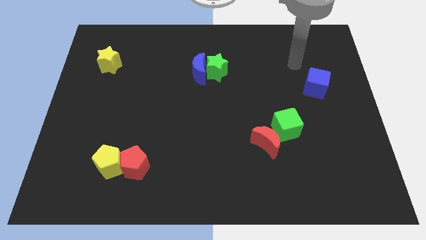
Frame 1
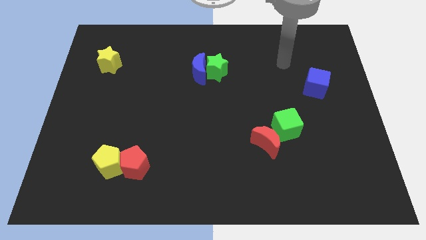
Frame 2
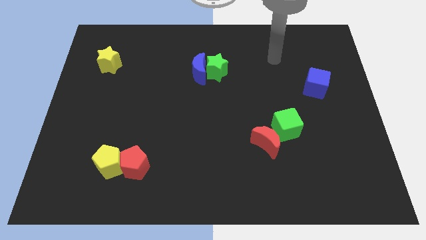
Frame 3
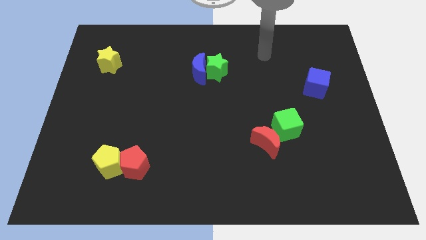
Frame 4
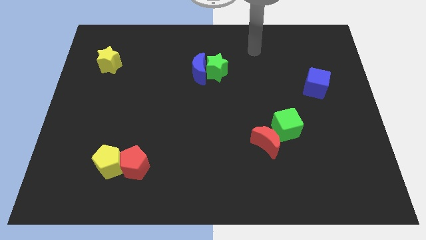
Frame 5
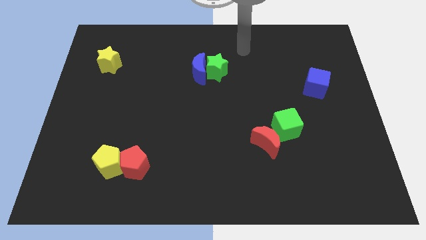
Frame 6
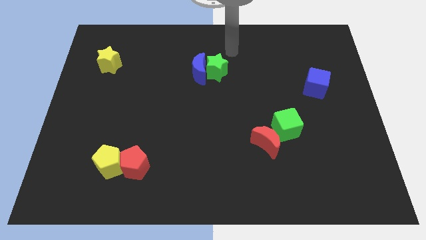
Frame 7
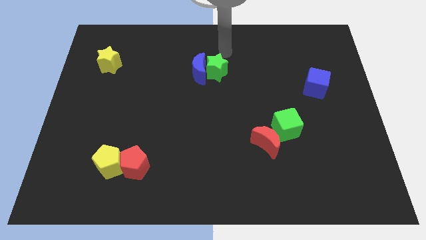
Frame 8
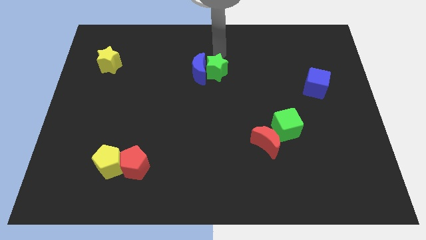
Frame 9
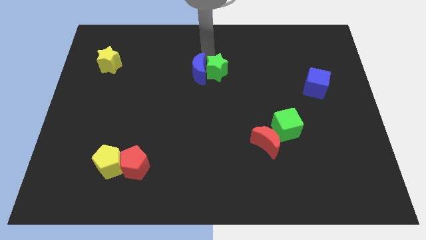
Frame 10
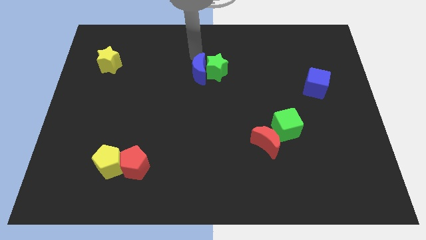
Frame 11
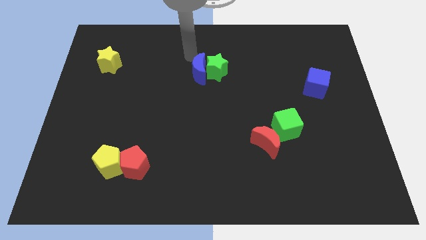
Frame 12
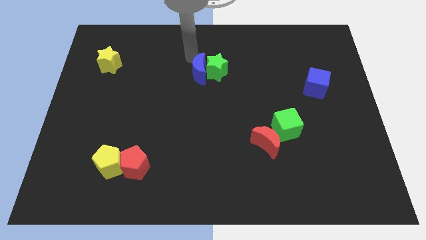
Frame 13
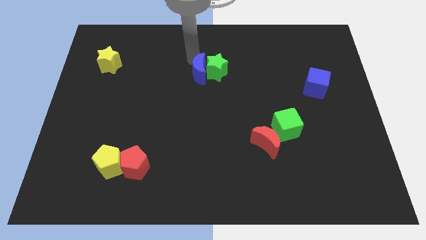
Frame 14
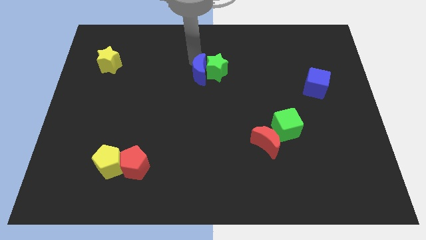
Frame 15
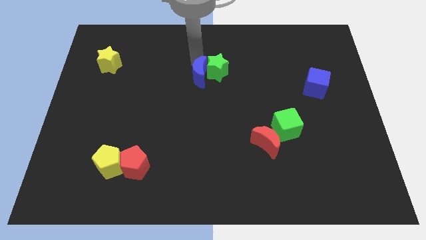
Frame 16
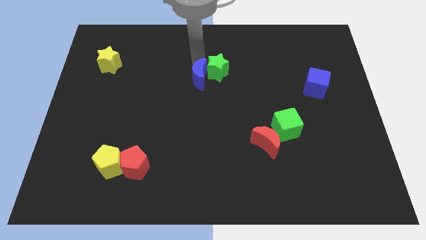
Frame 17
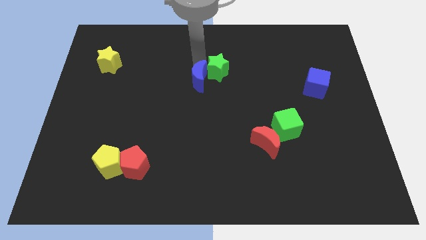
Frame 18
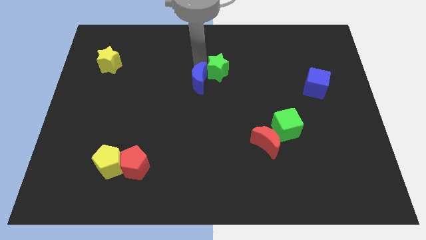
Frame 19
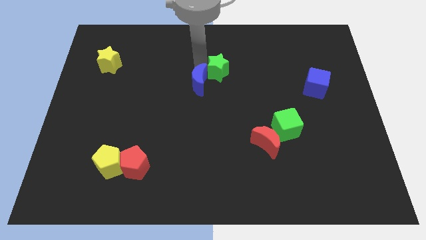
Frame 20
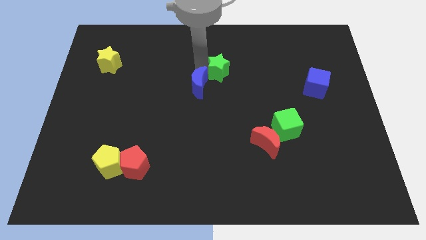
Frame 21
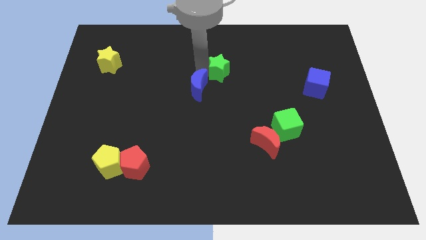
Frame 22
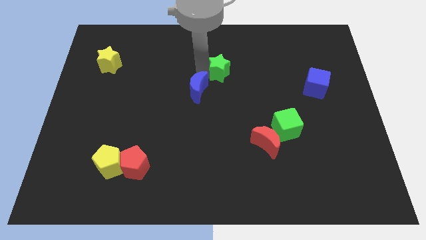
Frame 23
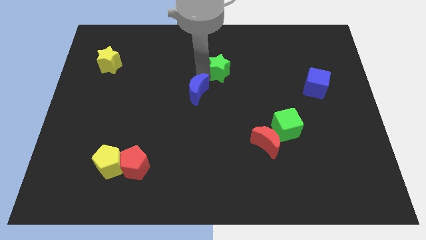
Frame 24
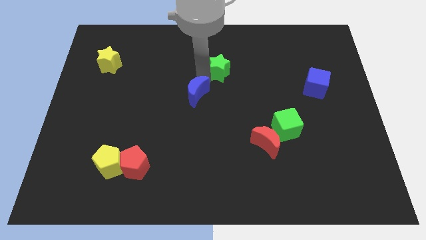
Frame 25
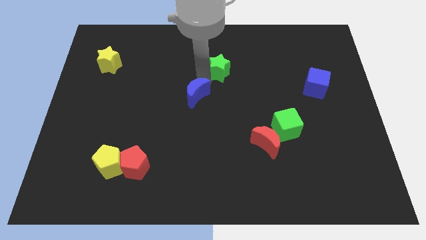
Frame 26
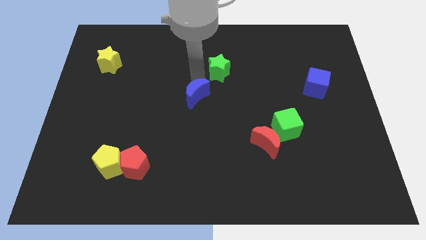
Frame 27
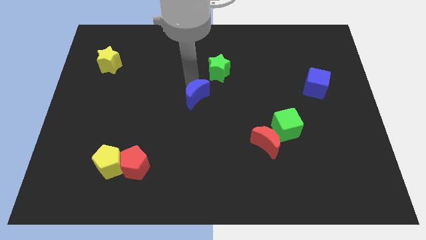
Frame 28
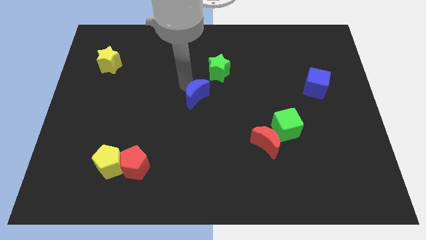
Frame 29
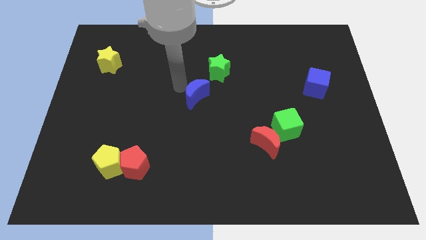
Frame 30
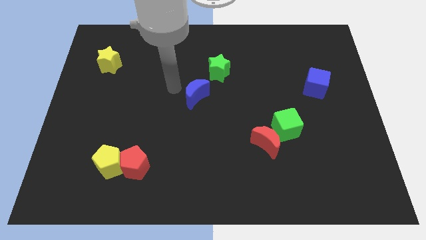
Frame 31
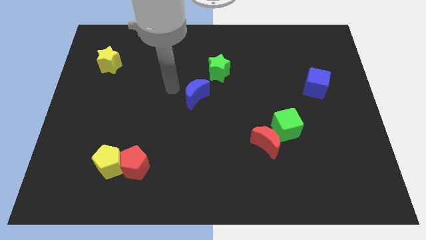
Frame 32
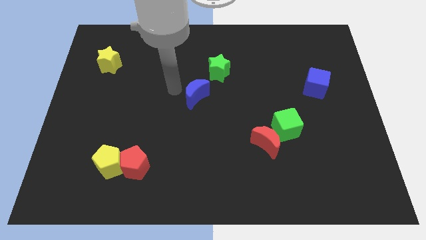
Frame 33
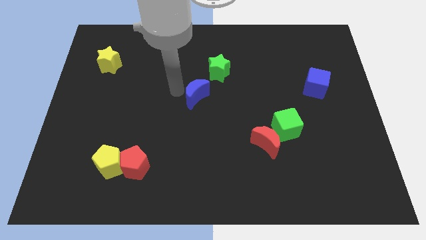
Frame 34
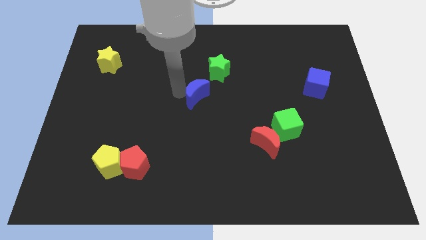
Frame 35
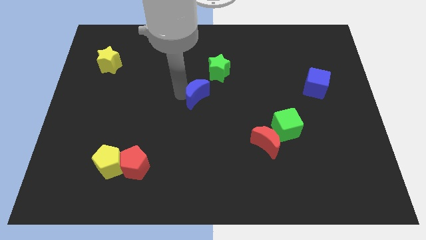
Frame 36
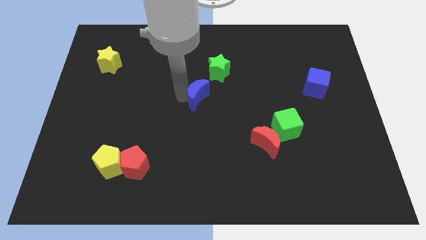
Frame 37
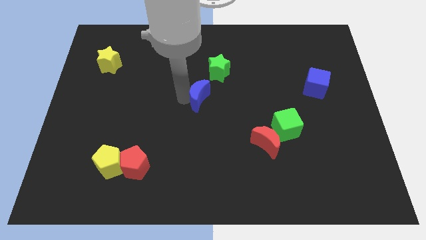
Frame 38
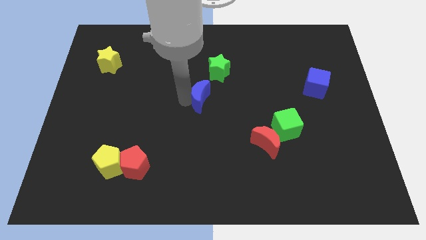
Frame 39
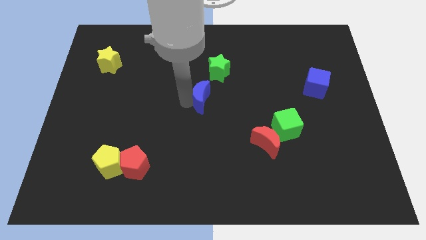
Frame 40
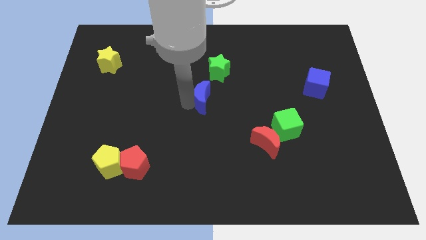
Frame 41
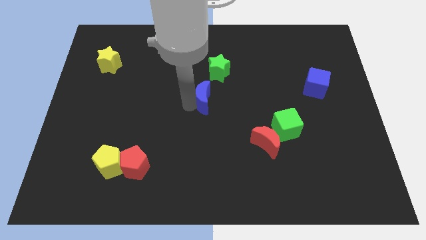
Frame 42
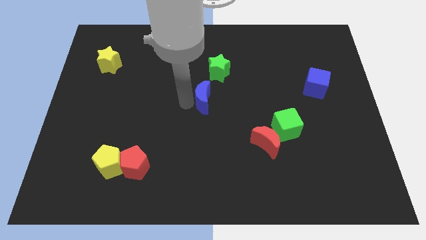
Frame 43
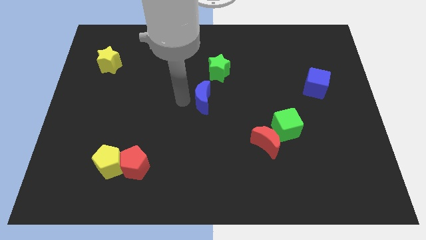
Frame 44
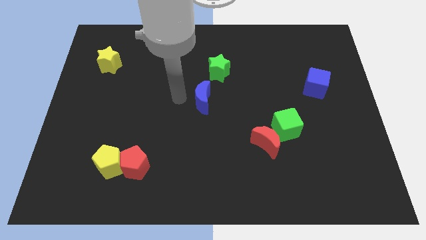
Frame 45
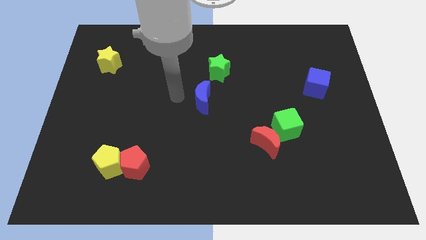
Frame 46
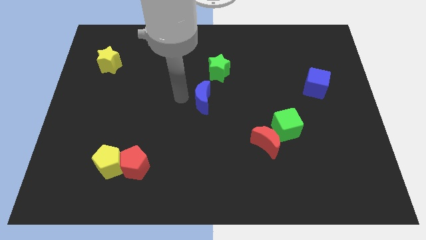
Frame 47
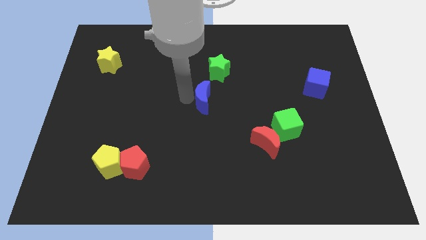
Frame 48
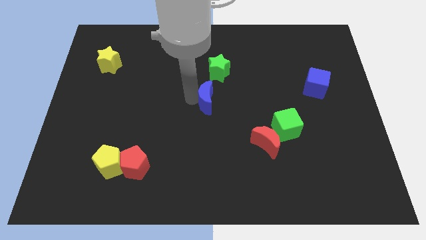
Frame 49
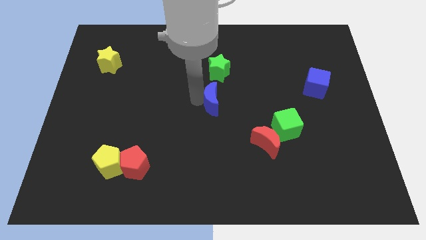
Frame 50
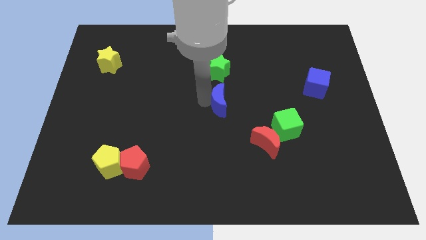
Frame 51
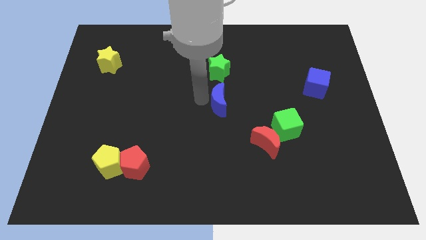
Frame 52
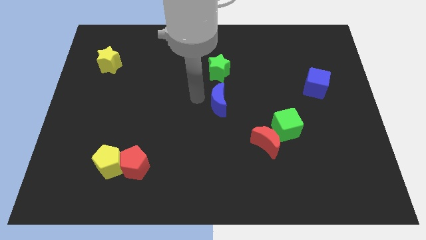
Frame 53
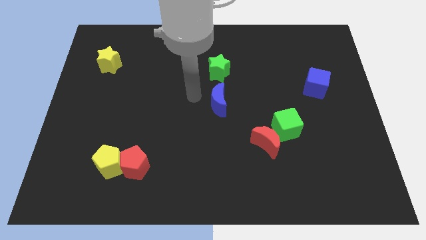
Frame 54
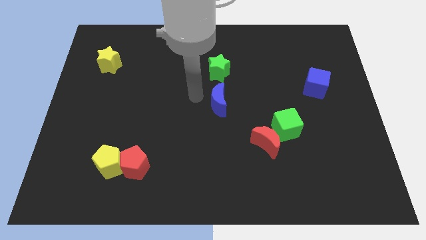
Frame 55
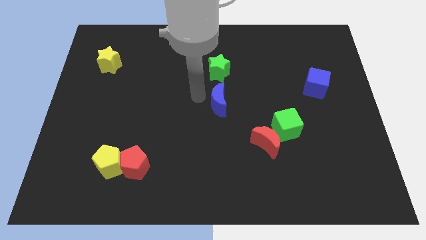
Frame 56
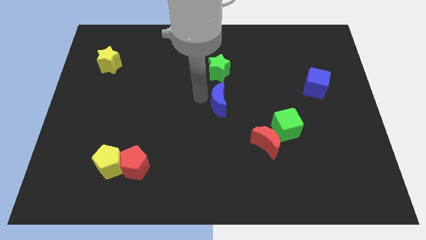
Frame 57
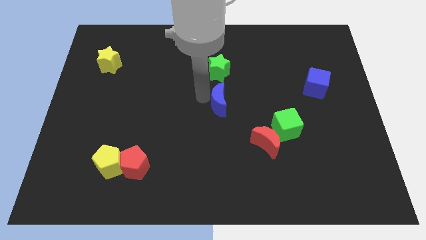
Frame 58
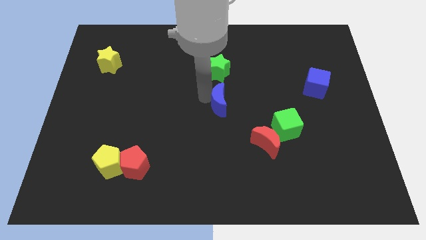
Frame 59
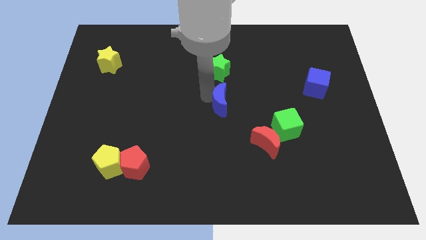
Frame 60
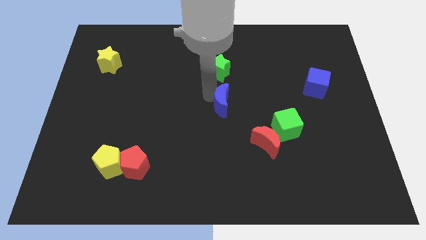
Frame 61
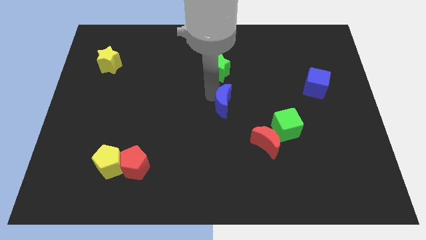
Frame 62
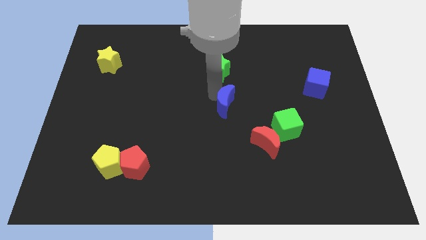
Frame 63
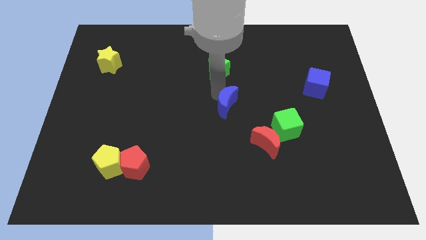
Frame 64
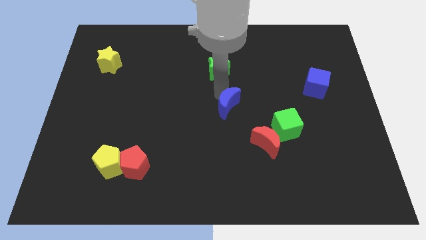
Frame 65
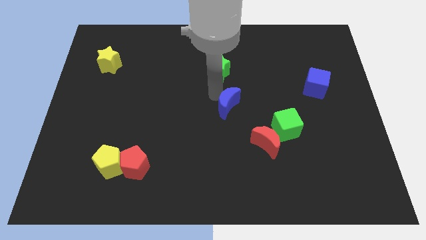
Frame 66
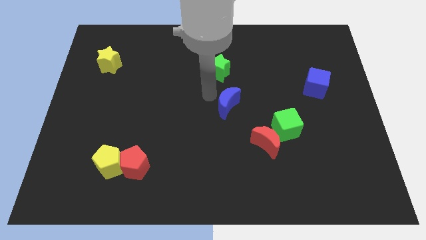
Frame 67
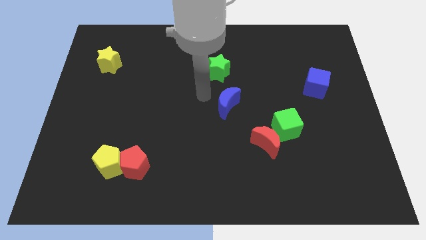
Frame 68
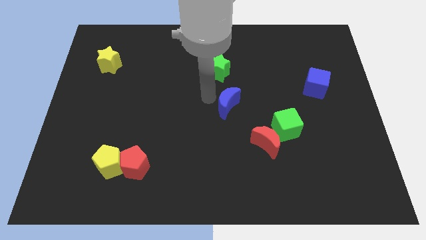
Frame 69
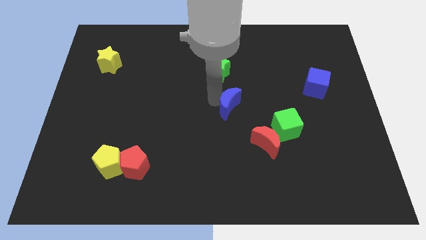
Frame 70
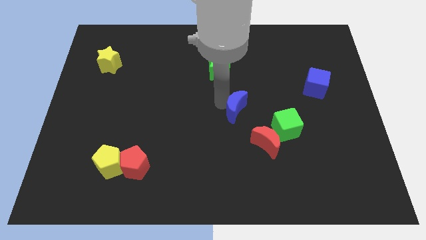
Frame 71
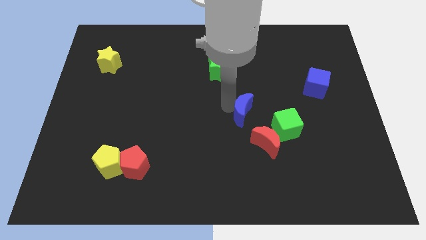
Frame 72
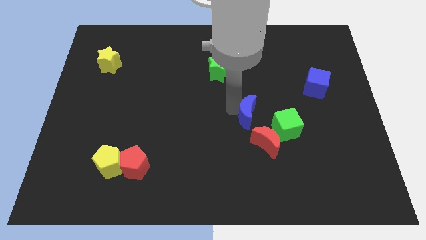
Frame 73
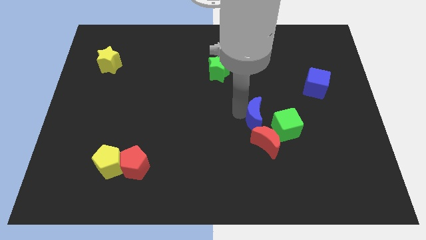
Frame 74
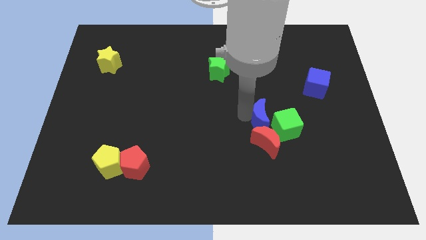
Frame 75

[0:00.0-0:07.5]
put the blue moon towards the green cube
